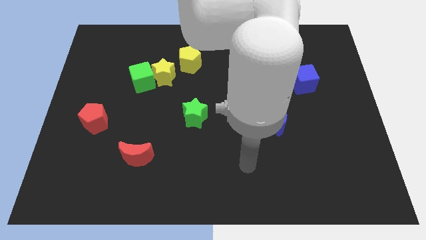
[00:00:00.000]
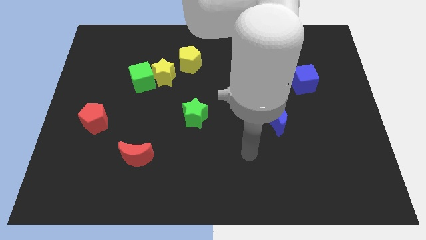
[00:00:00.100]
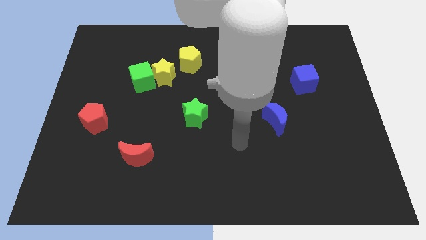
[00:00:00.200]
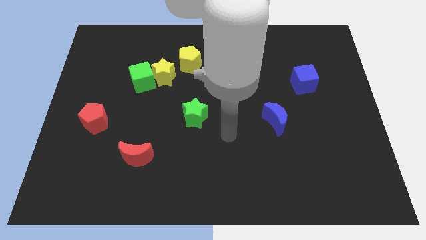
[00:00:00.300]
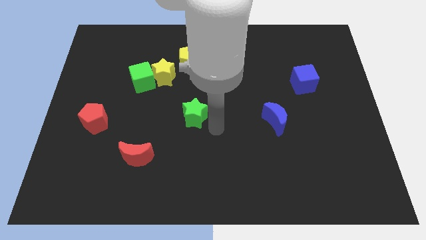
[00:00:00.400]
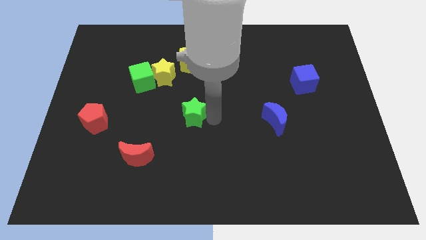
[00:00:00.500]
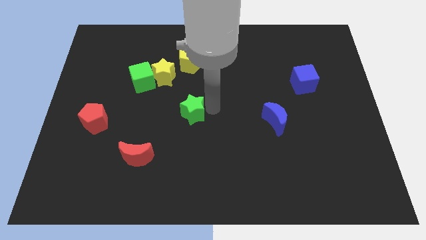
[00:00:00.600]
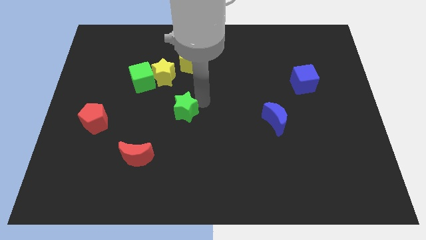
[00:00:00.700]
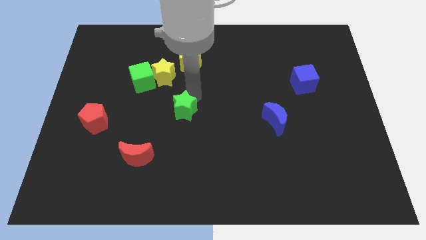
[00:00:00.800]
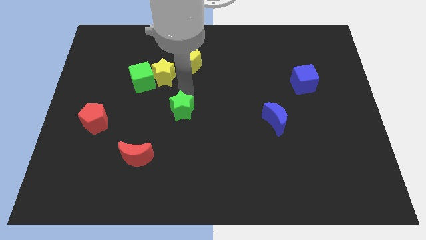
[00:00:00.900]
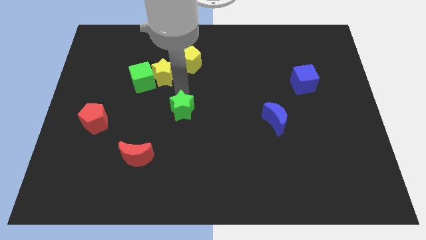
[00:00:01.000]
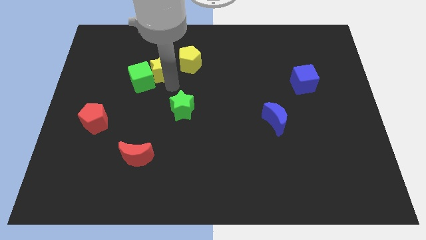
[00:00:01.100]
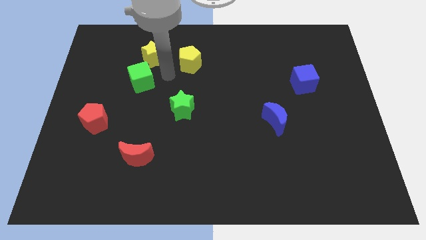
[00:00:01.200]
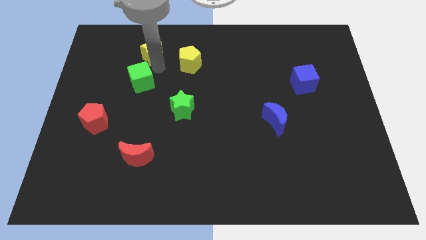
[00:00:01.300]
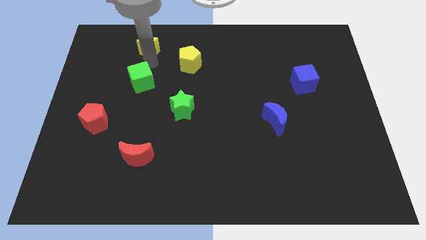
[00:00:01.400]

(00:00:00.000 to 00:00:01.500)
move the green cube away from the yellow star

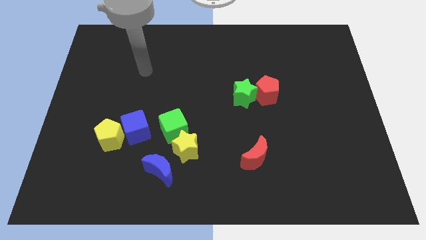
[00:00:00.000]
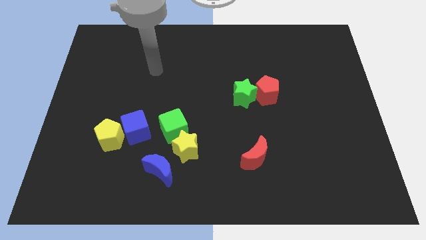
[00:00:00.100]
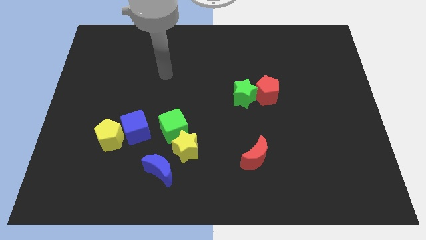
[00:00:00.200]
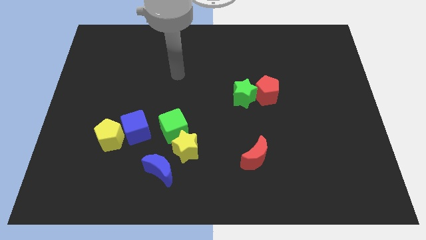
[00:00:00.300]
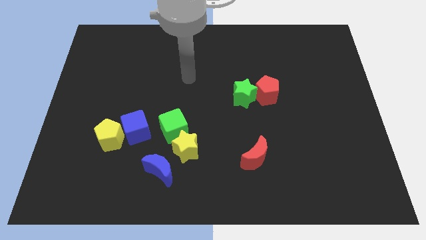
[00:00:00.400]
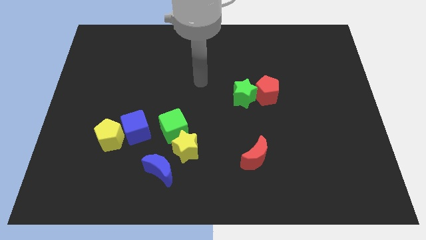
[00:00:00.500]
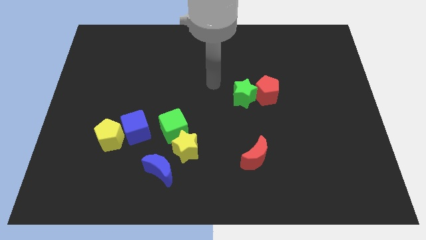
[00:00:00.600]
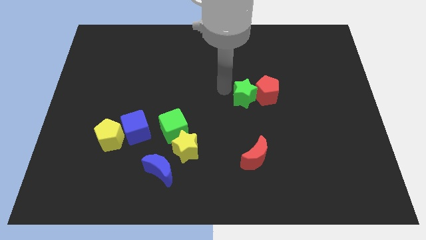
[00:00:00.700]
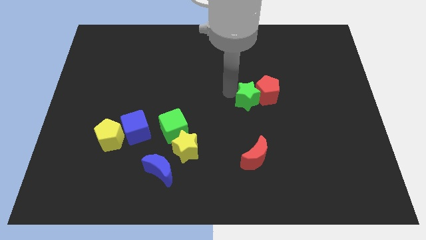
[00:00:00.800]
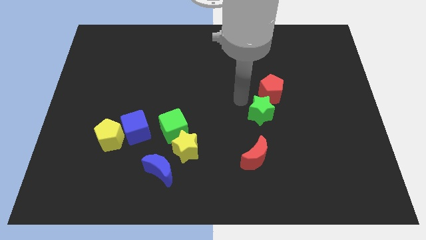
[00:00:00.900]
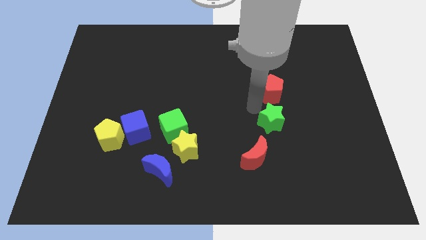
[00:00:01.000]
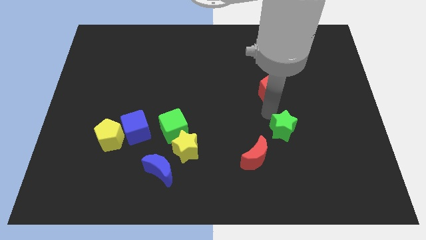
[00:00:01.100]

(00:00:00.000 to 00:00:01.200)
separate the red pentagon from the green star

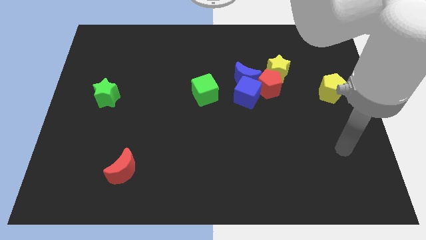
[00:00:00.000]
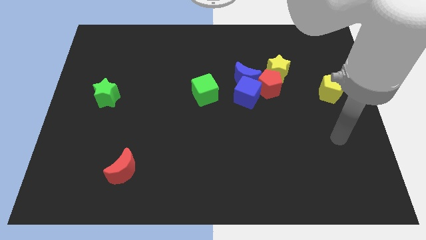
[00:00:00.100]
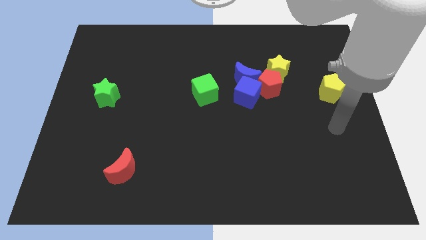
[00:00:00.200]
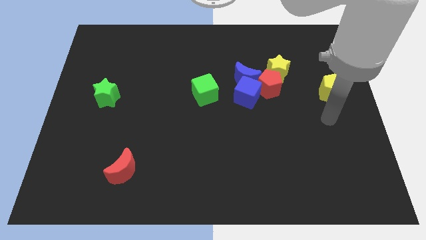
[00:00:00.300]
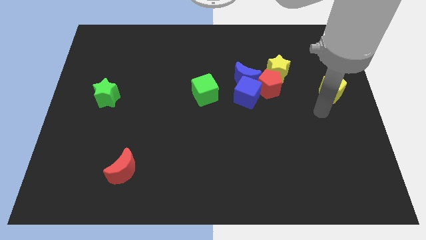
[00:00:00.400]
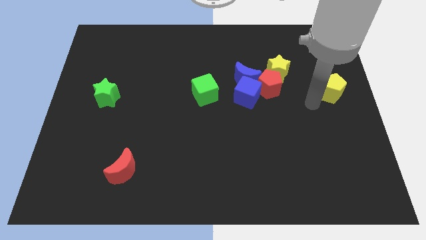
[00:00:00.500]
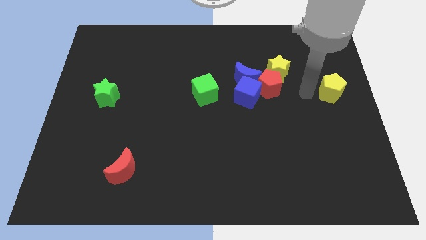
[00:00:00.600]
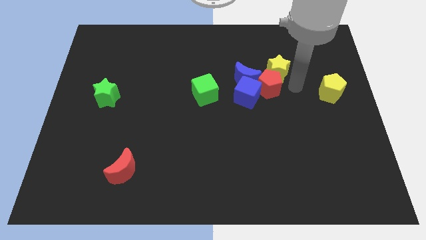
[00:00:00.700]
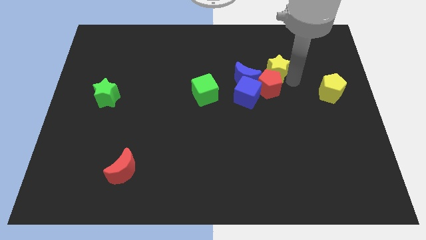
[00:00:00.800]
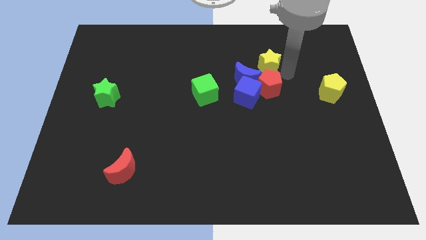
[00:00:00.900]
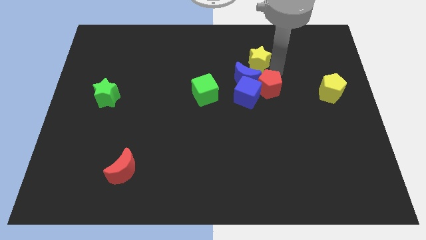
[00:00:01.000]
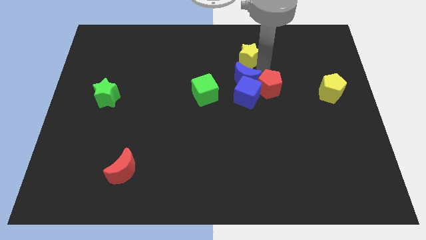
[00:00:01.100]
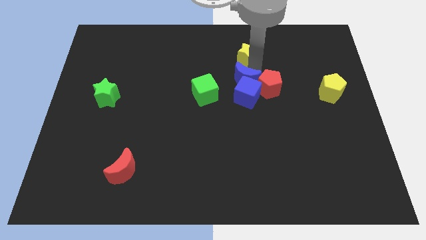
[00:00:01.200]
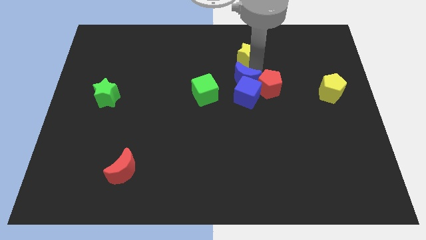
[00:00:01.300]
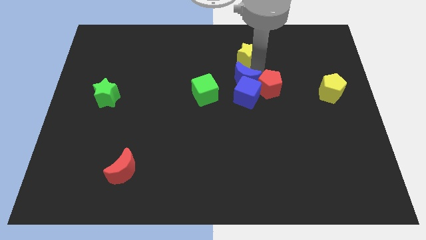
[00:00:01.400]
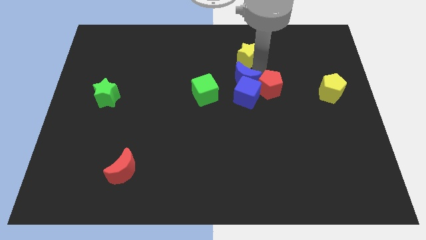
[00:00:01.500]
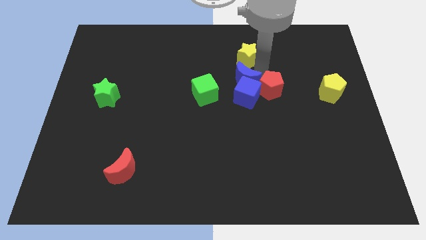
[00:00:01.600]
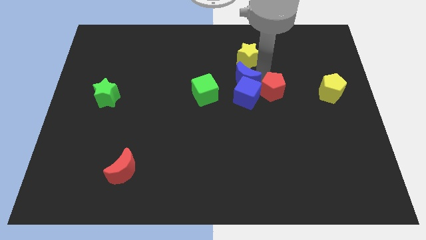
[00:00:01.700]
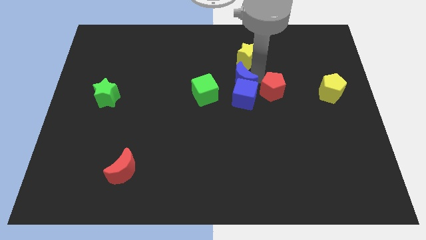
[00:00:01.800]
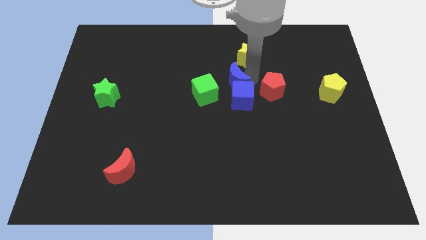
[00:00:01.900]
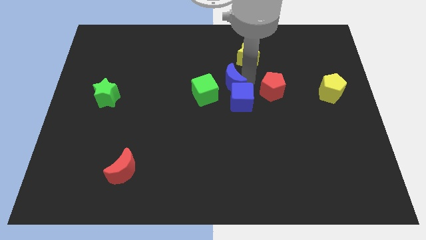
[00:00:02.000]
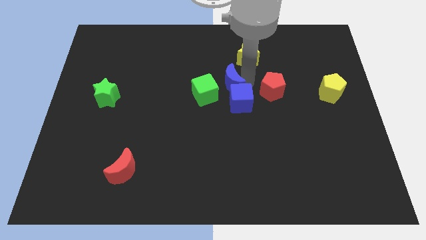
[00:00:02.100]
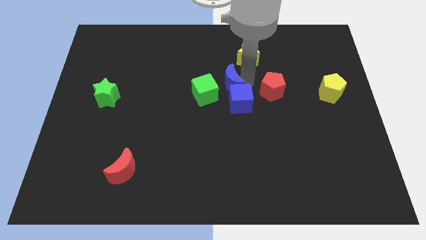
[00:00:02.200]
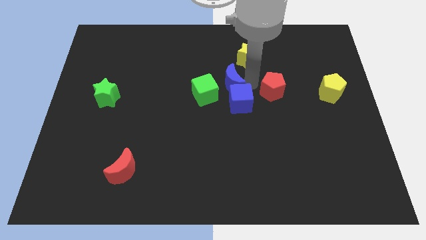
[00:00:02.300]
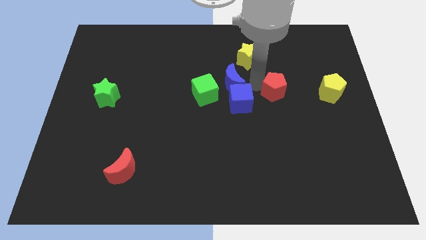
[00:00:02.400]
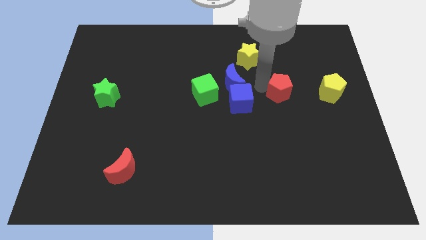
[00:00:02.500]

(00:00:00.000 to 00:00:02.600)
separate the red pentagon from the yellow star, blue moon, and blue cube

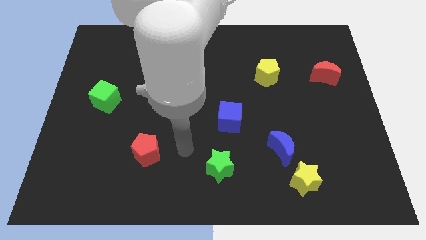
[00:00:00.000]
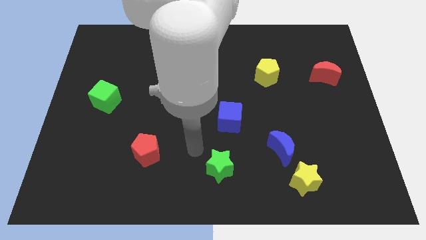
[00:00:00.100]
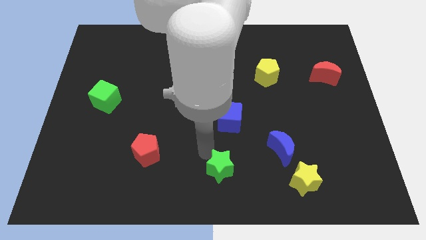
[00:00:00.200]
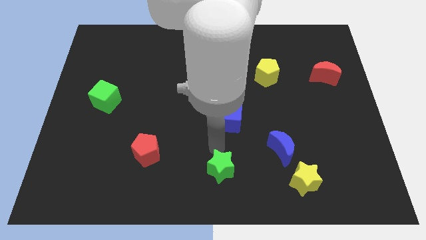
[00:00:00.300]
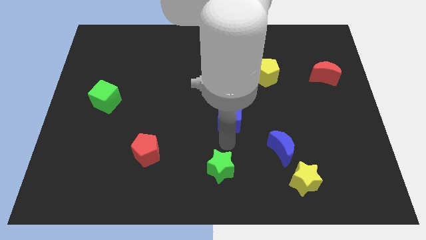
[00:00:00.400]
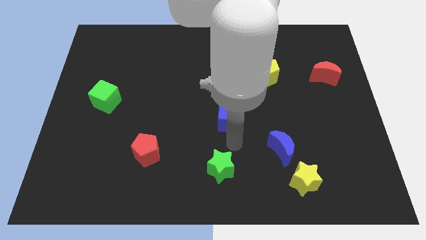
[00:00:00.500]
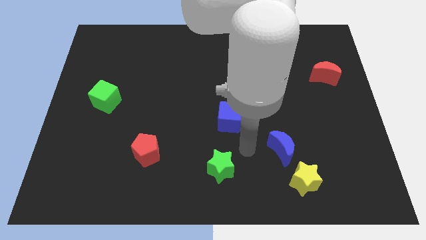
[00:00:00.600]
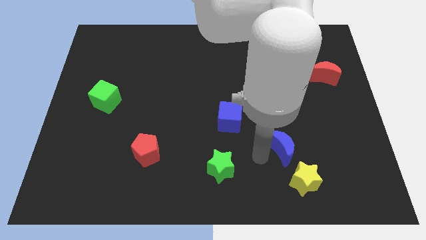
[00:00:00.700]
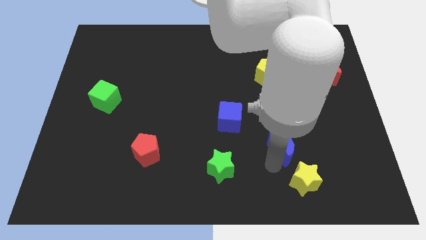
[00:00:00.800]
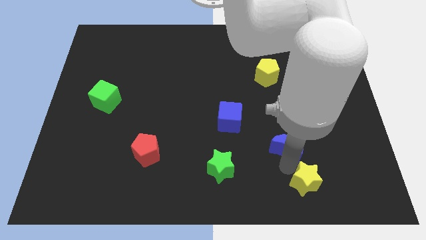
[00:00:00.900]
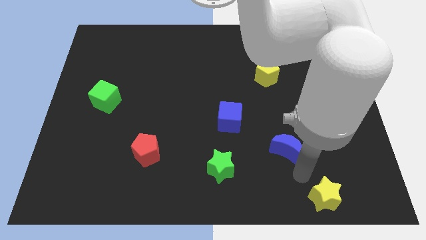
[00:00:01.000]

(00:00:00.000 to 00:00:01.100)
move the blue moon away from the yellow star

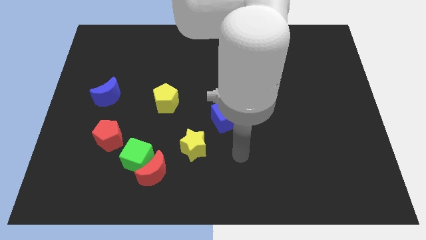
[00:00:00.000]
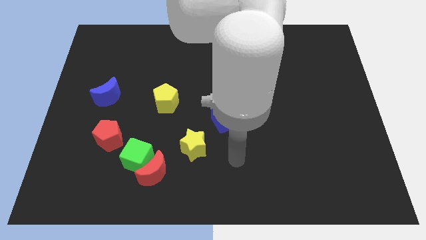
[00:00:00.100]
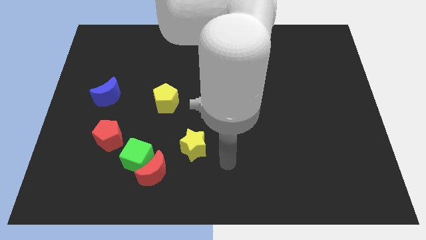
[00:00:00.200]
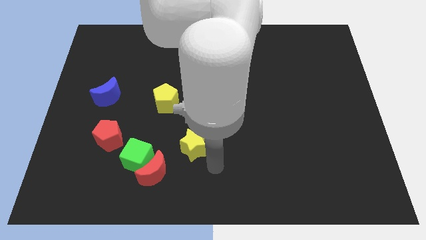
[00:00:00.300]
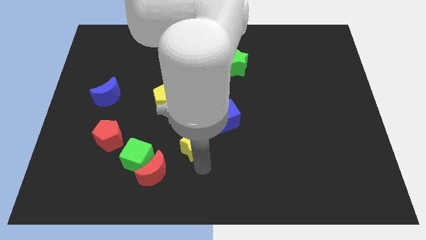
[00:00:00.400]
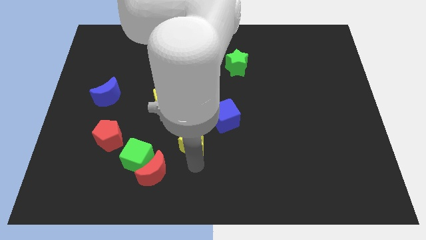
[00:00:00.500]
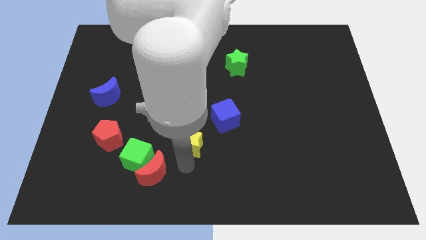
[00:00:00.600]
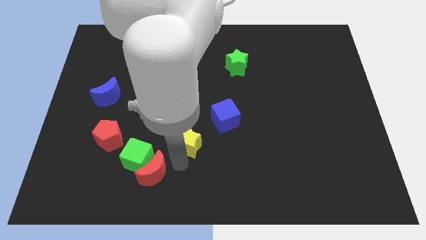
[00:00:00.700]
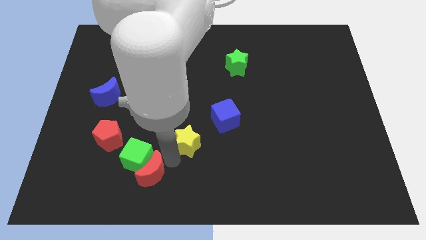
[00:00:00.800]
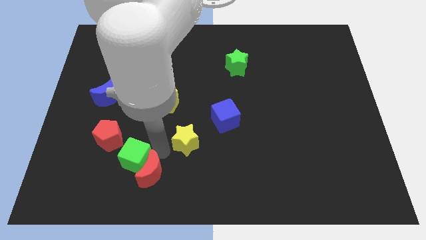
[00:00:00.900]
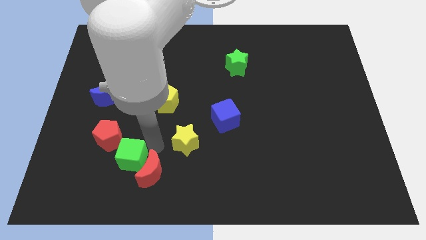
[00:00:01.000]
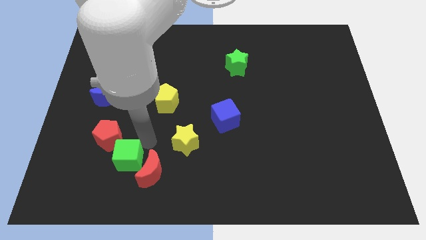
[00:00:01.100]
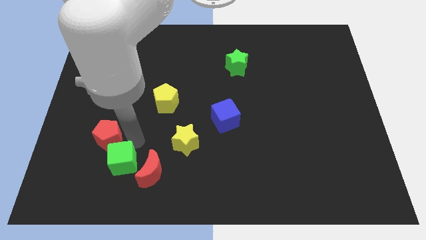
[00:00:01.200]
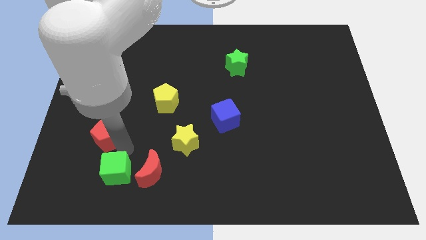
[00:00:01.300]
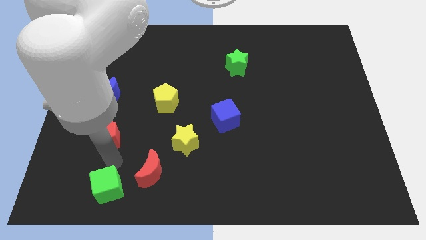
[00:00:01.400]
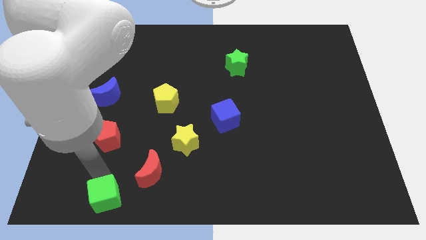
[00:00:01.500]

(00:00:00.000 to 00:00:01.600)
separate the green cube from the red moon and red pentagon

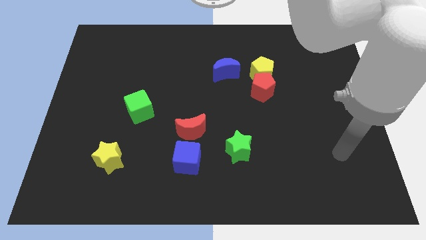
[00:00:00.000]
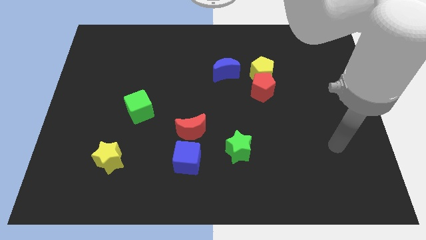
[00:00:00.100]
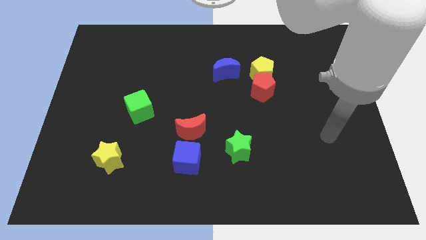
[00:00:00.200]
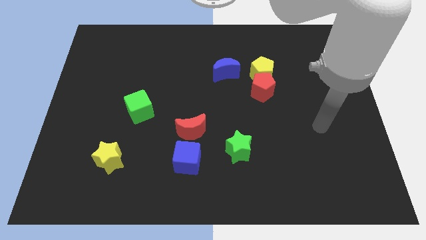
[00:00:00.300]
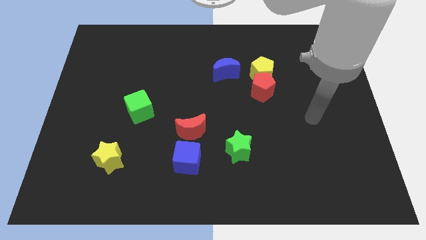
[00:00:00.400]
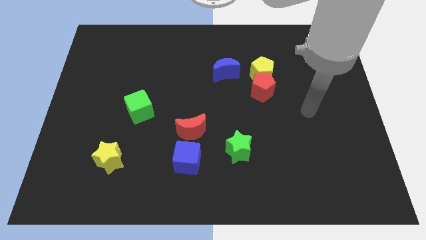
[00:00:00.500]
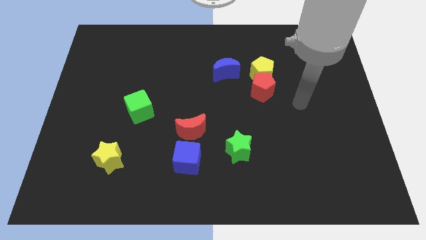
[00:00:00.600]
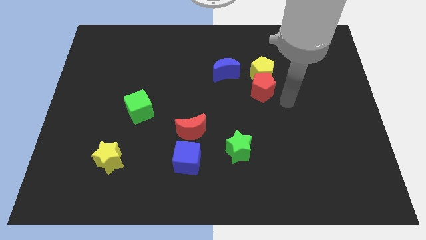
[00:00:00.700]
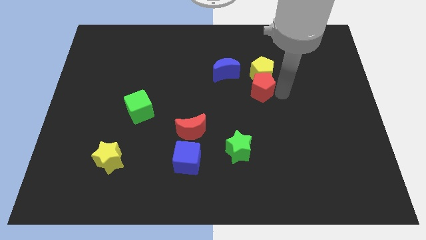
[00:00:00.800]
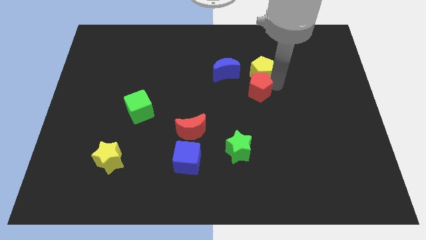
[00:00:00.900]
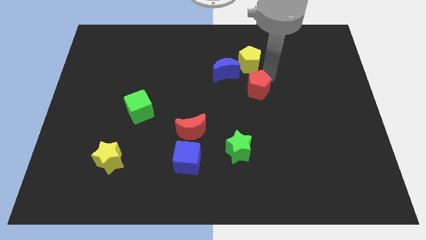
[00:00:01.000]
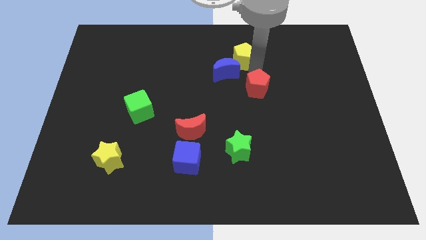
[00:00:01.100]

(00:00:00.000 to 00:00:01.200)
pull the red pentagon apart from the yellow pentagon
